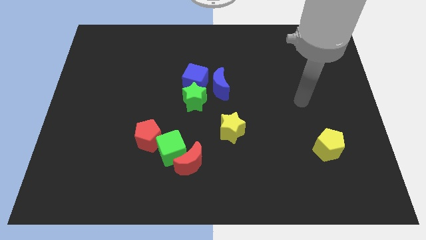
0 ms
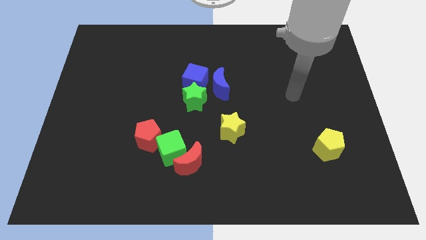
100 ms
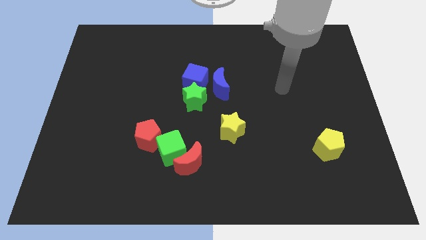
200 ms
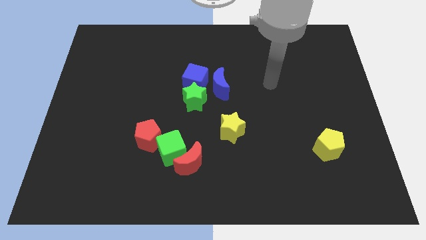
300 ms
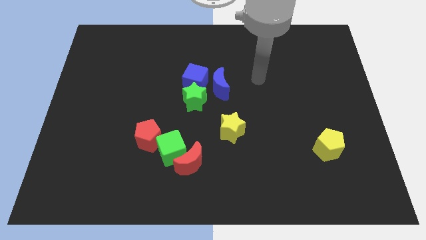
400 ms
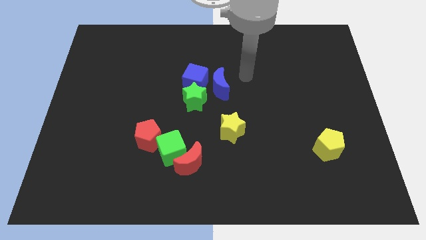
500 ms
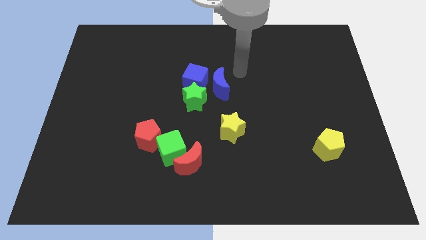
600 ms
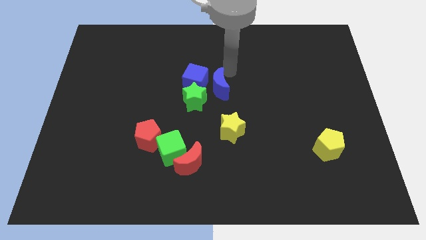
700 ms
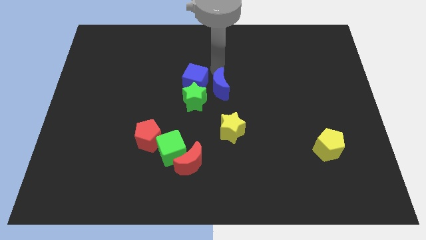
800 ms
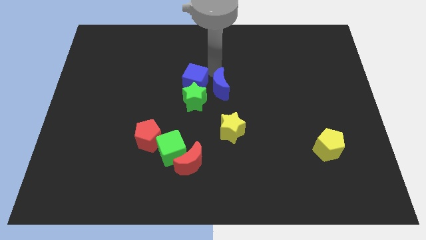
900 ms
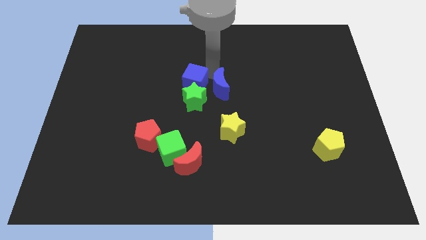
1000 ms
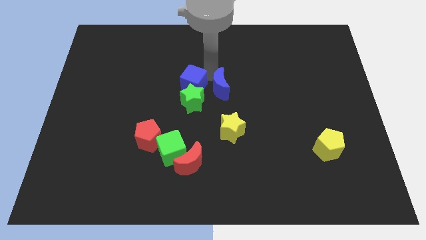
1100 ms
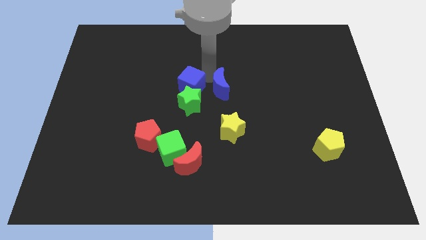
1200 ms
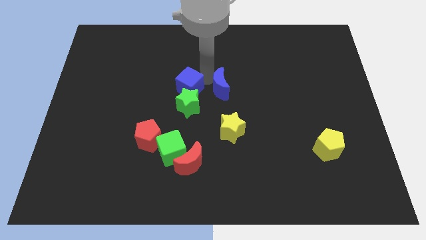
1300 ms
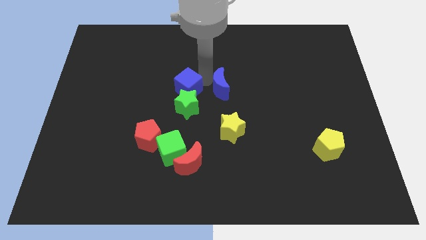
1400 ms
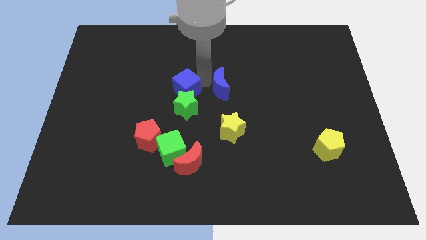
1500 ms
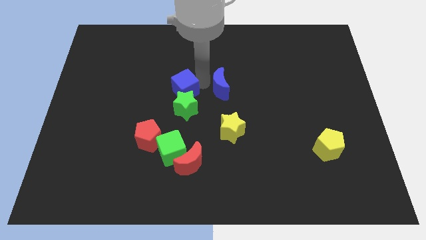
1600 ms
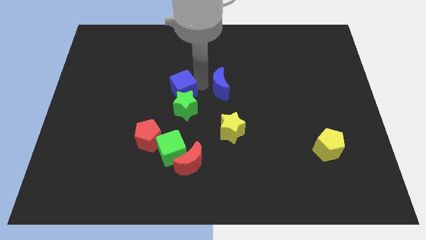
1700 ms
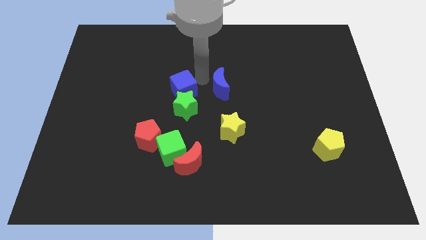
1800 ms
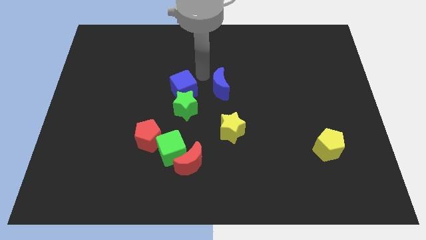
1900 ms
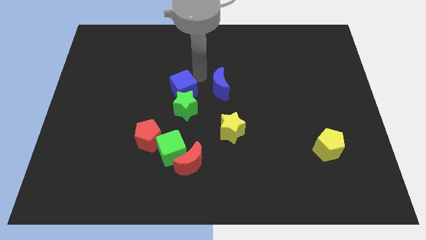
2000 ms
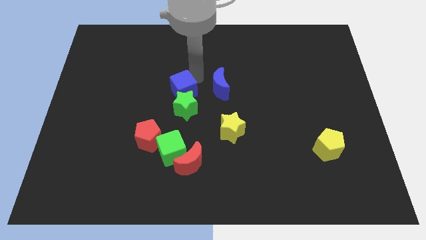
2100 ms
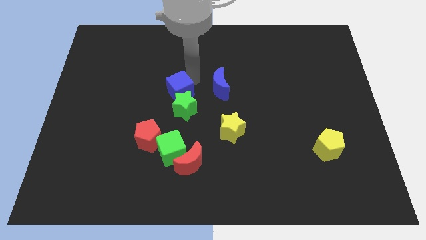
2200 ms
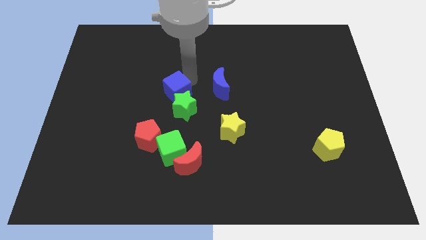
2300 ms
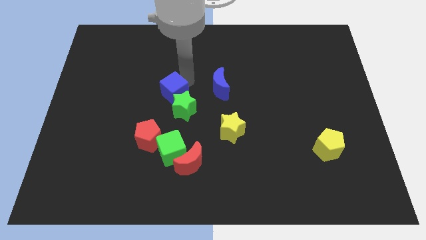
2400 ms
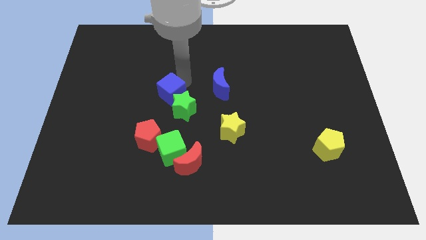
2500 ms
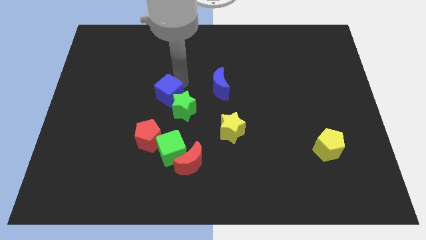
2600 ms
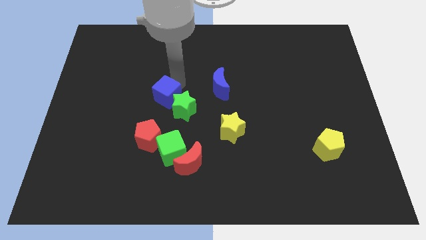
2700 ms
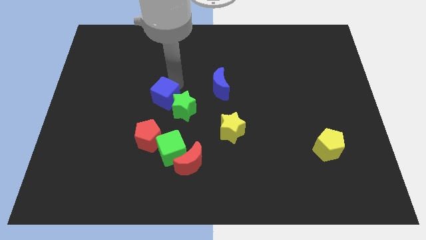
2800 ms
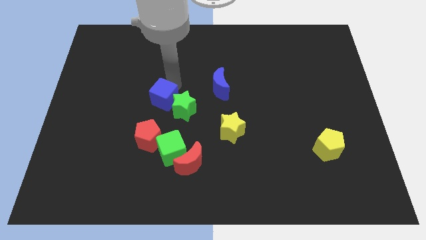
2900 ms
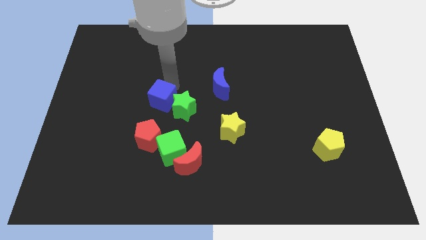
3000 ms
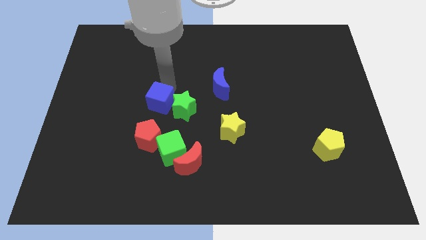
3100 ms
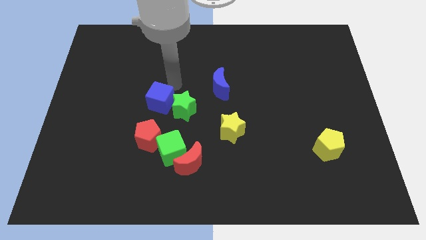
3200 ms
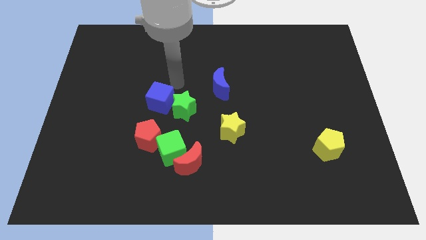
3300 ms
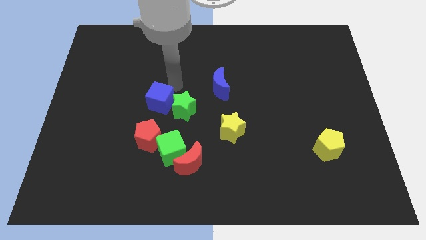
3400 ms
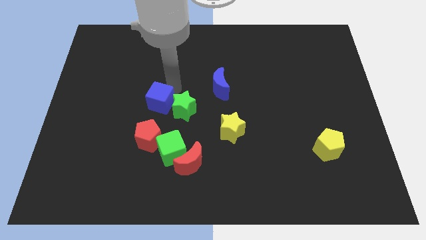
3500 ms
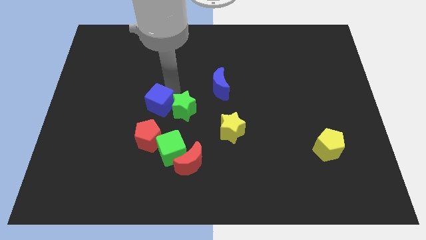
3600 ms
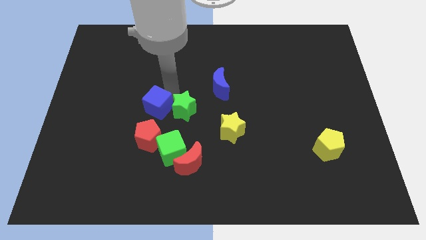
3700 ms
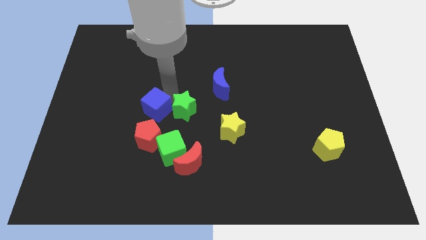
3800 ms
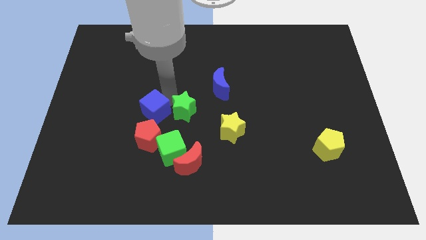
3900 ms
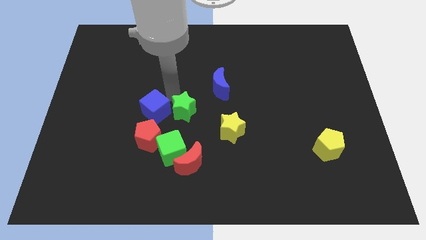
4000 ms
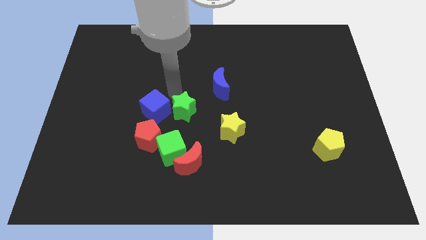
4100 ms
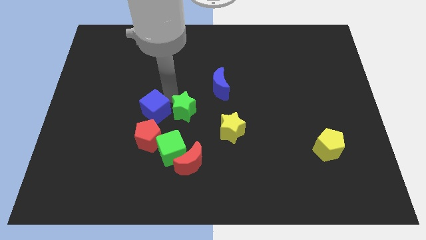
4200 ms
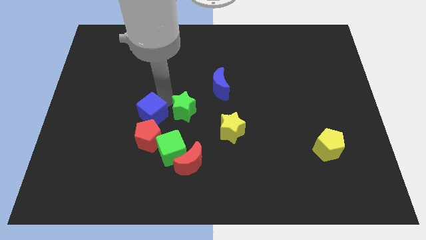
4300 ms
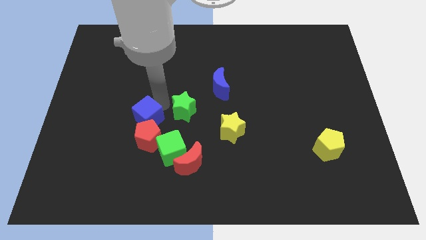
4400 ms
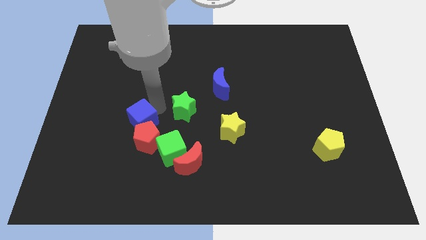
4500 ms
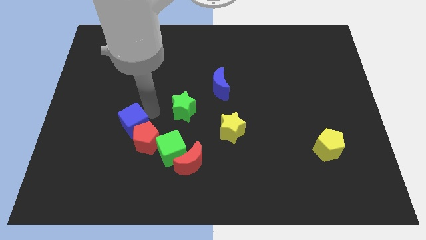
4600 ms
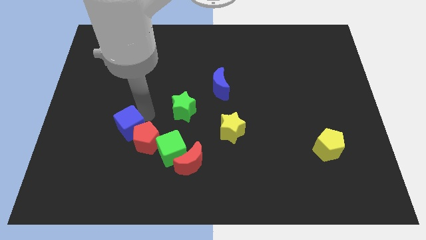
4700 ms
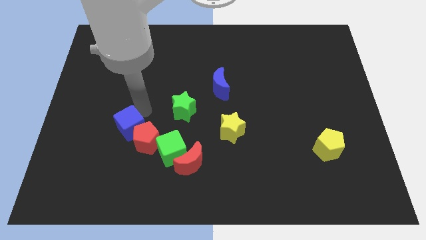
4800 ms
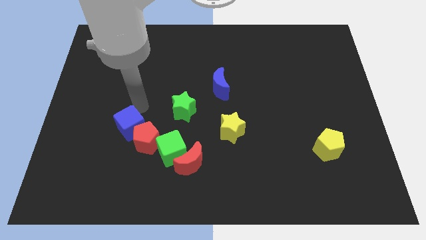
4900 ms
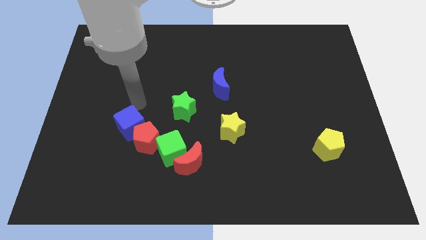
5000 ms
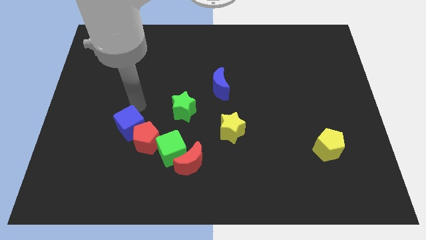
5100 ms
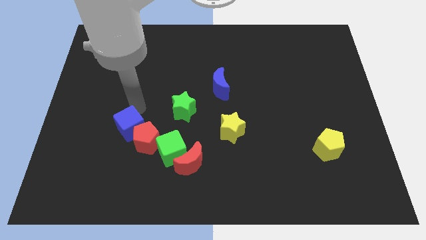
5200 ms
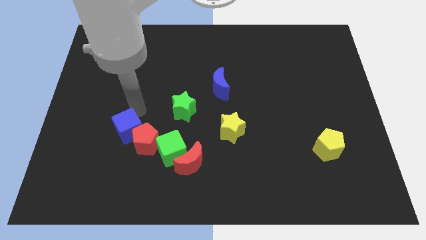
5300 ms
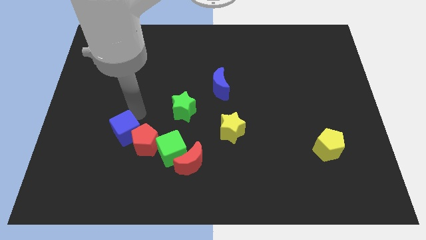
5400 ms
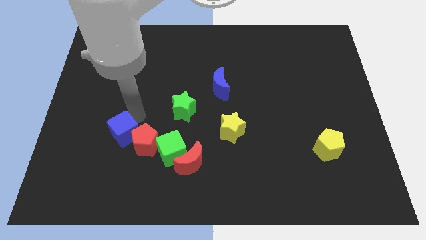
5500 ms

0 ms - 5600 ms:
push the blue cube left of the green cube

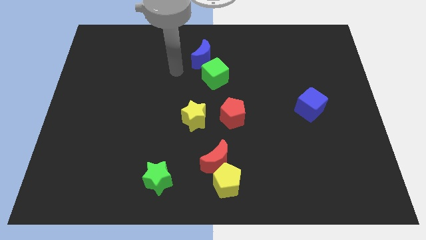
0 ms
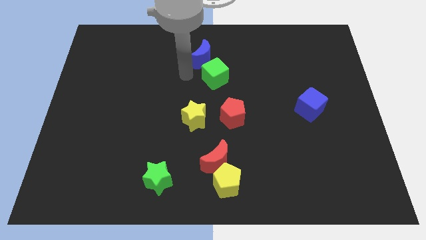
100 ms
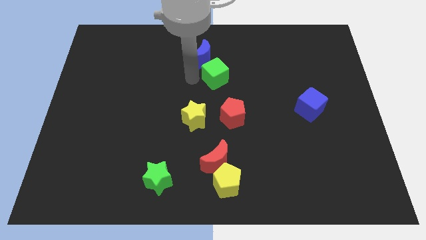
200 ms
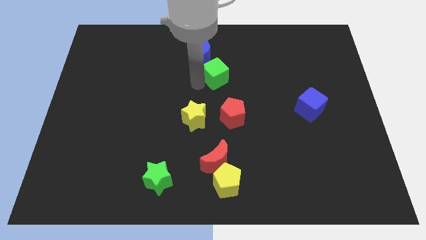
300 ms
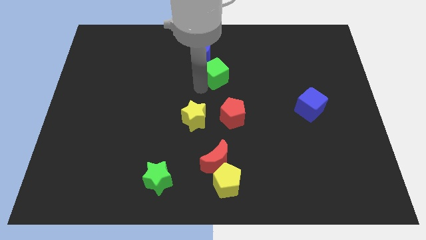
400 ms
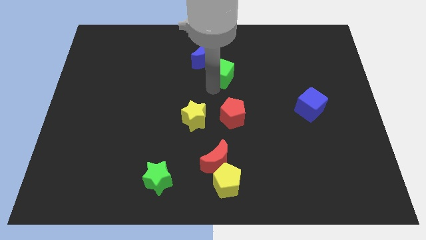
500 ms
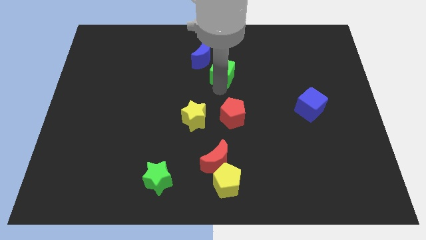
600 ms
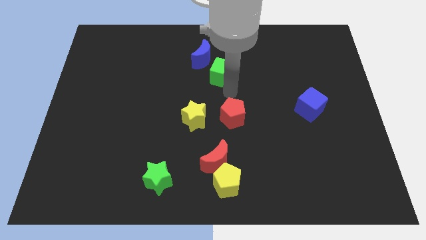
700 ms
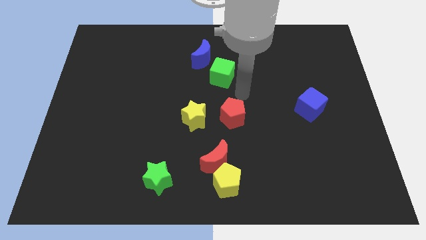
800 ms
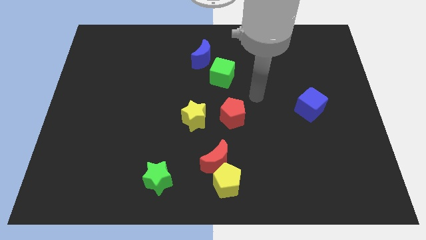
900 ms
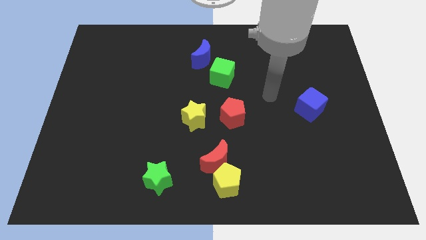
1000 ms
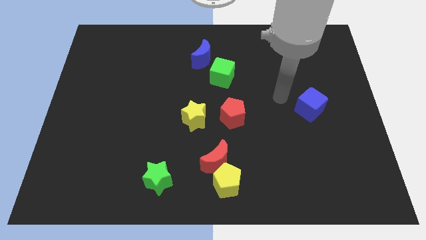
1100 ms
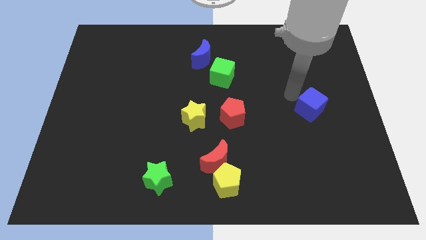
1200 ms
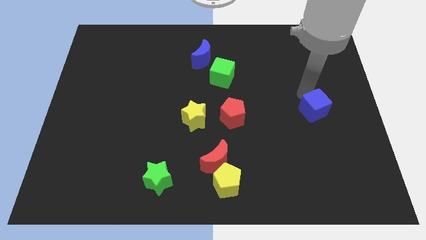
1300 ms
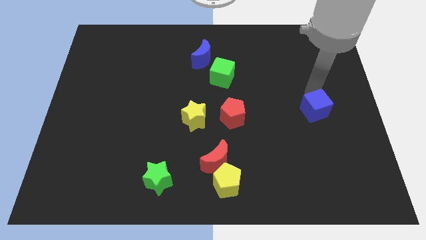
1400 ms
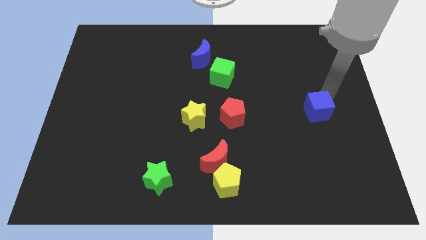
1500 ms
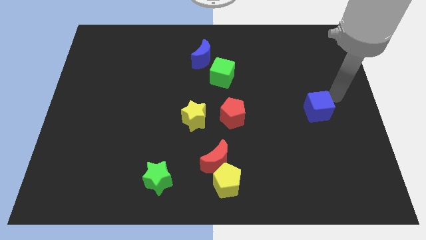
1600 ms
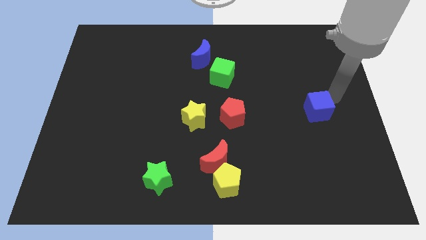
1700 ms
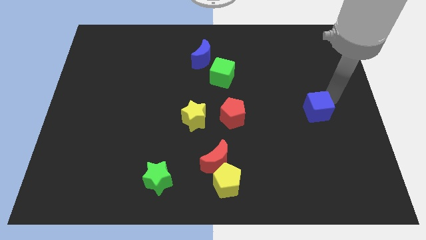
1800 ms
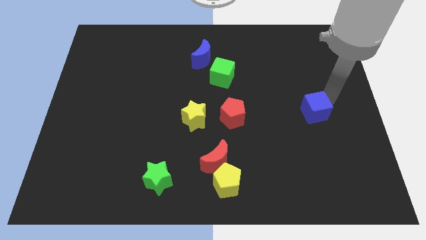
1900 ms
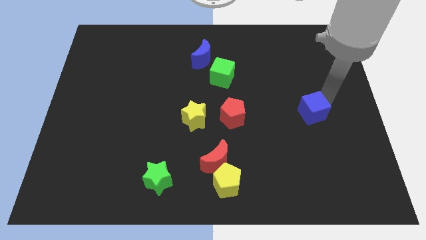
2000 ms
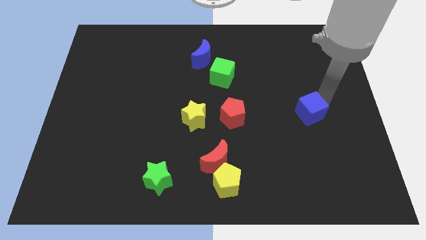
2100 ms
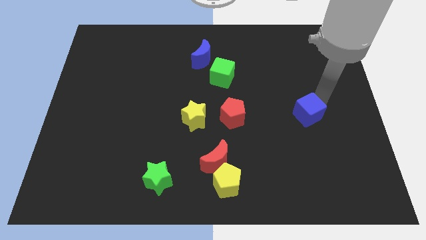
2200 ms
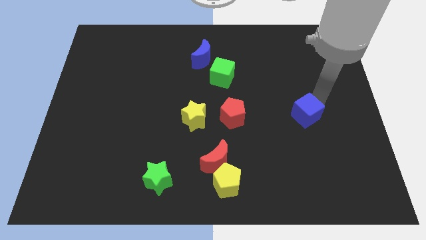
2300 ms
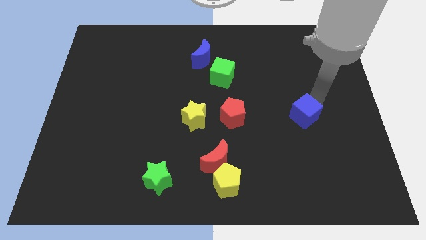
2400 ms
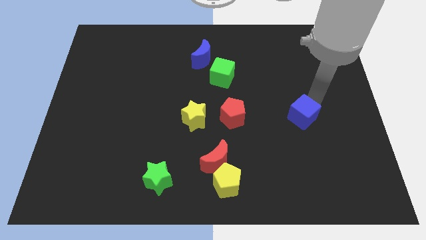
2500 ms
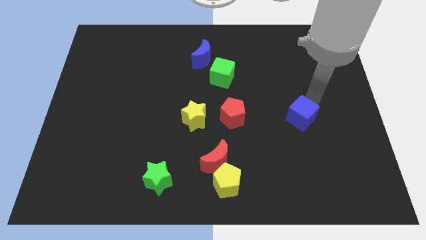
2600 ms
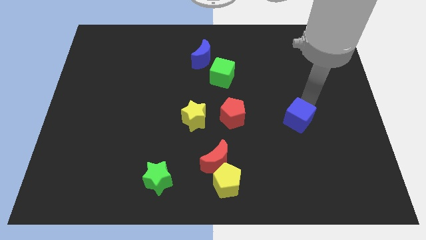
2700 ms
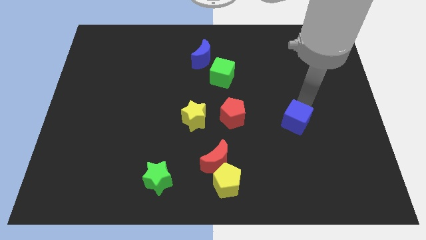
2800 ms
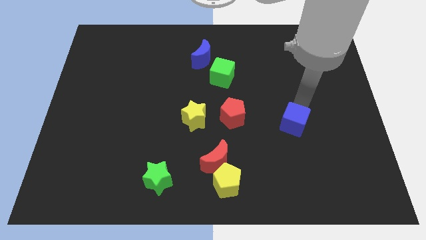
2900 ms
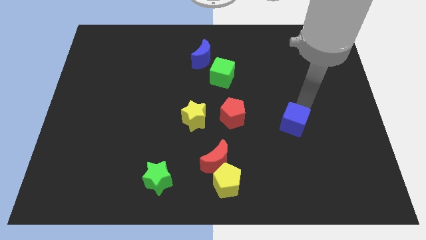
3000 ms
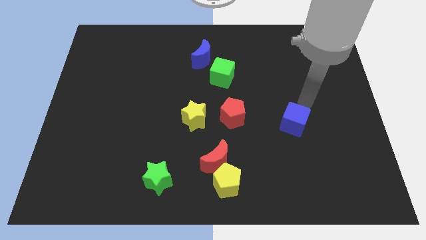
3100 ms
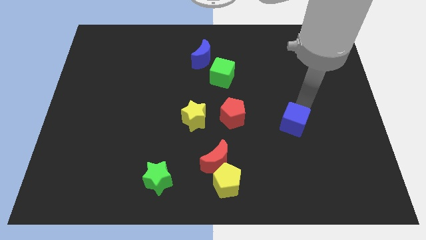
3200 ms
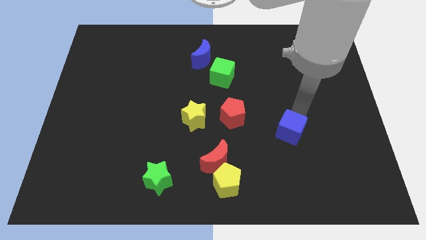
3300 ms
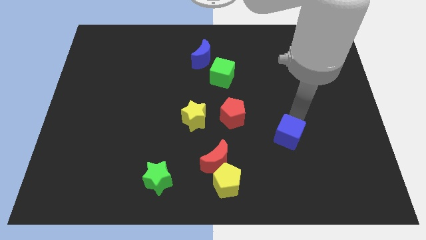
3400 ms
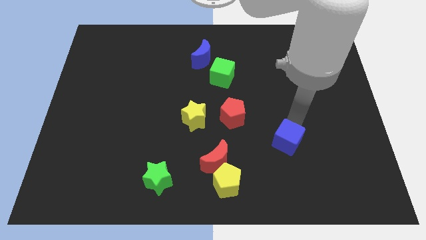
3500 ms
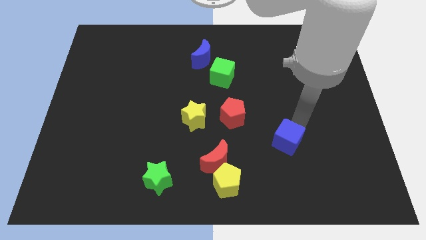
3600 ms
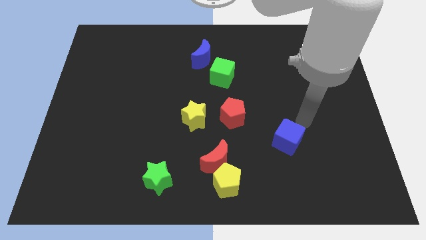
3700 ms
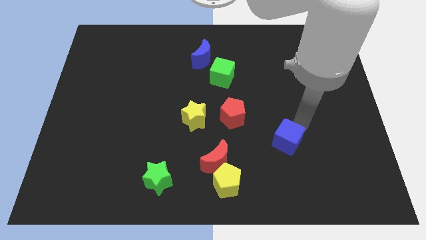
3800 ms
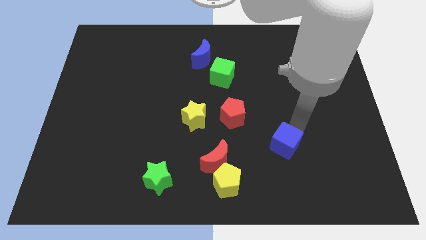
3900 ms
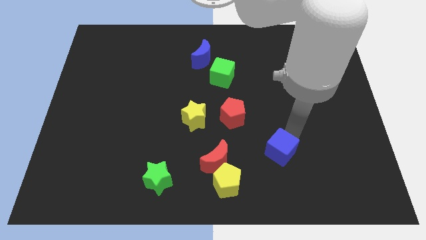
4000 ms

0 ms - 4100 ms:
push the blue cube just right of the red moon
